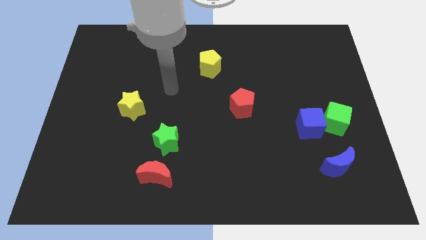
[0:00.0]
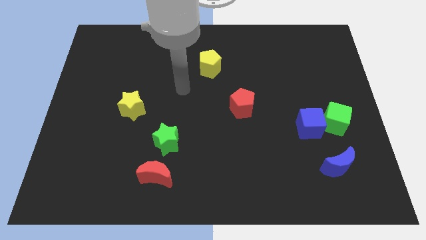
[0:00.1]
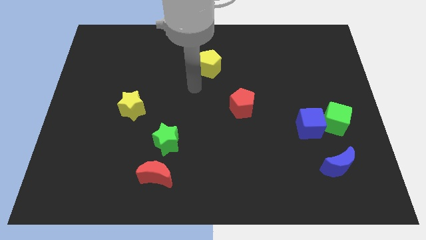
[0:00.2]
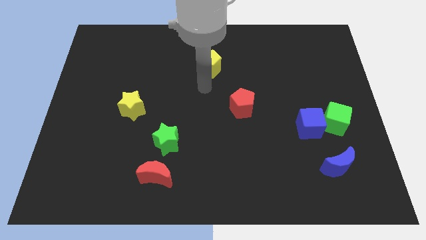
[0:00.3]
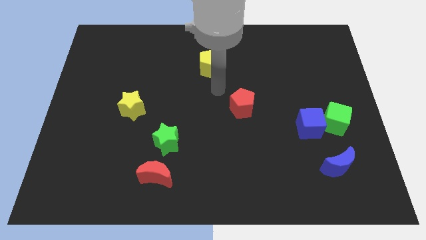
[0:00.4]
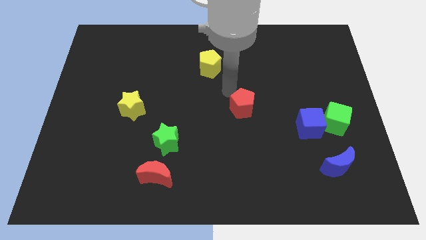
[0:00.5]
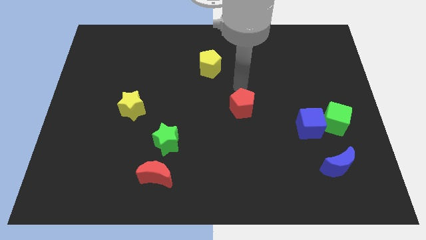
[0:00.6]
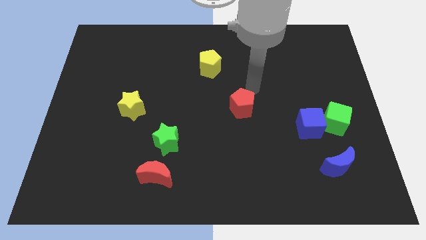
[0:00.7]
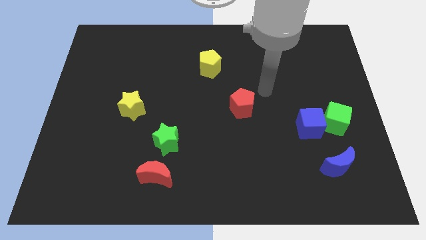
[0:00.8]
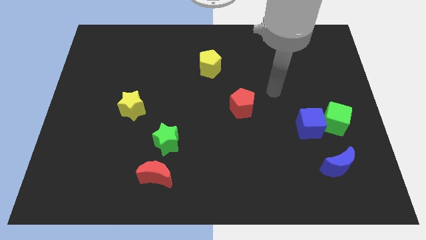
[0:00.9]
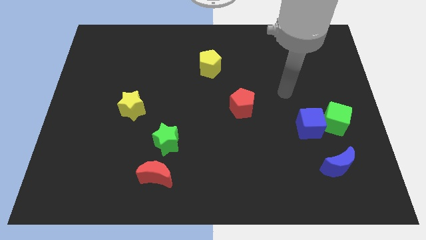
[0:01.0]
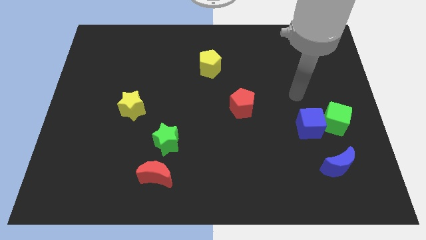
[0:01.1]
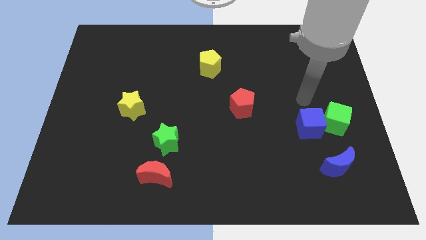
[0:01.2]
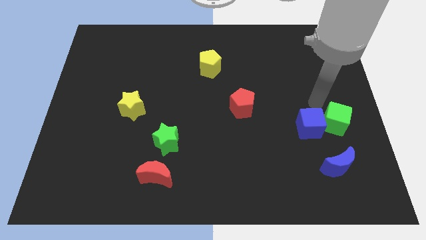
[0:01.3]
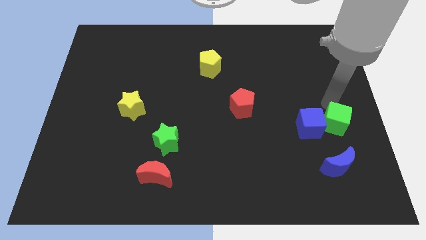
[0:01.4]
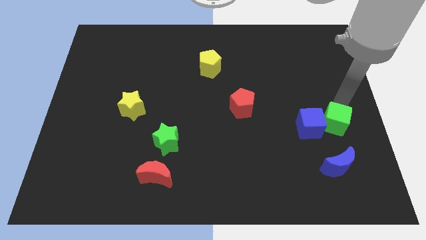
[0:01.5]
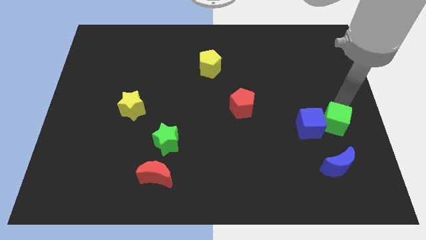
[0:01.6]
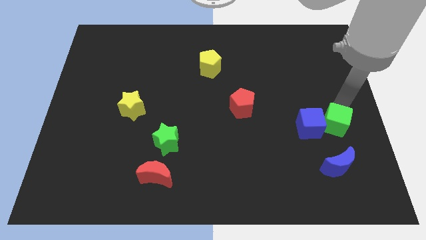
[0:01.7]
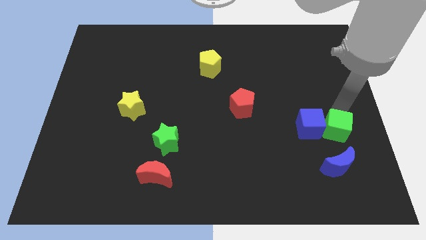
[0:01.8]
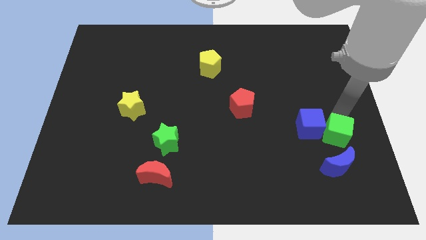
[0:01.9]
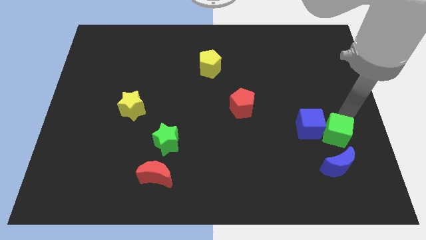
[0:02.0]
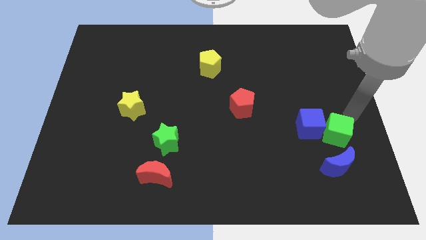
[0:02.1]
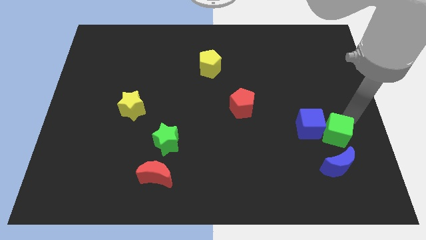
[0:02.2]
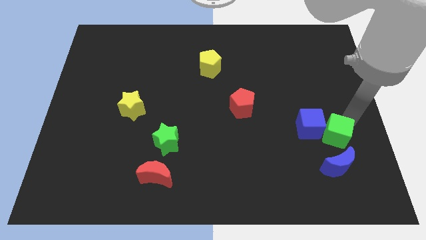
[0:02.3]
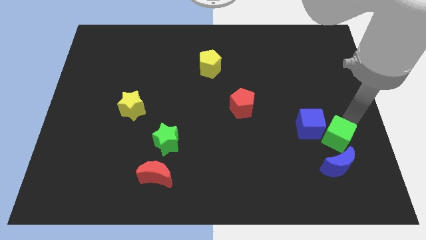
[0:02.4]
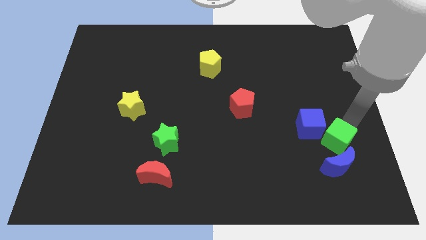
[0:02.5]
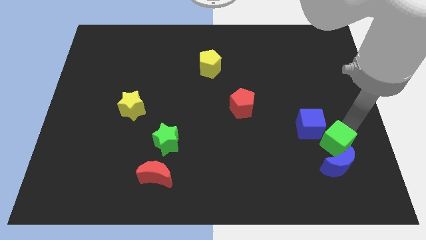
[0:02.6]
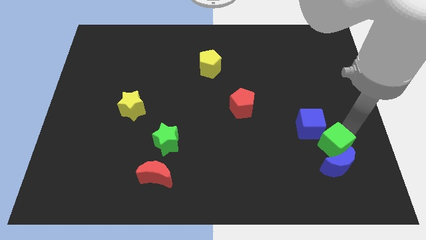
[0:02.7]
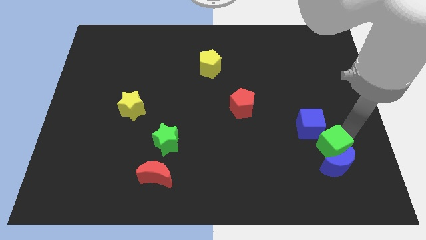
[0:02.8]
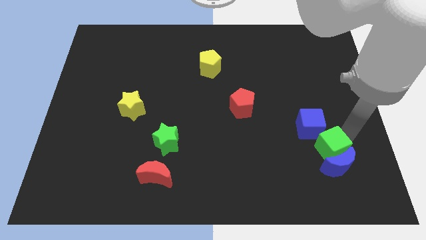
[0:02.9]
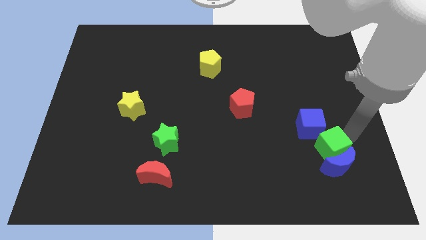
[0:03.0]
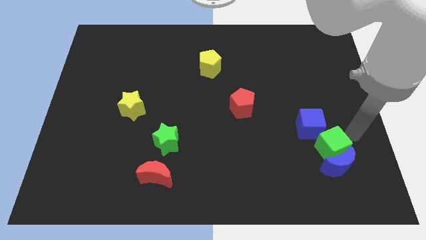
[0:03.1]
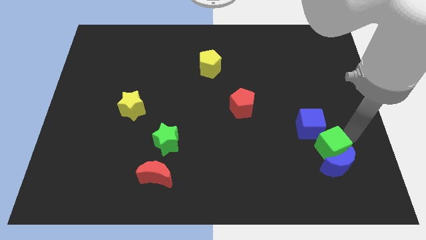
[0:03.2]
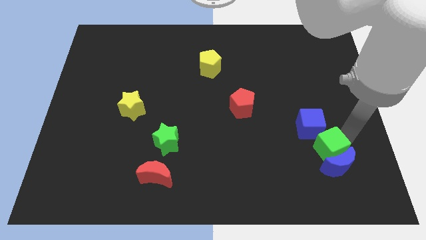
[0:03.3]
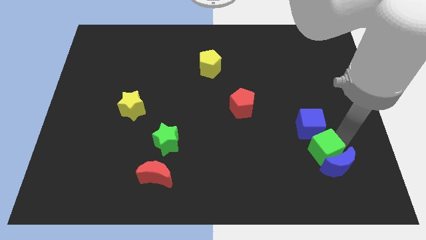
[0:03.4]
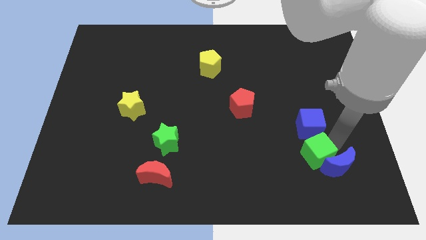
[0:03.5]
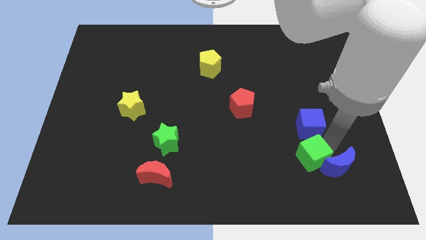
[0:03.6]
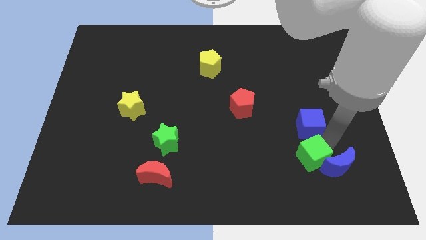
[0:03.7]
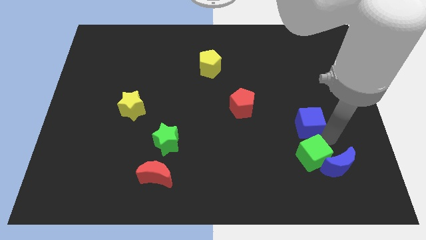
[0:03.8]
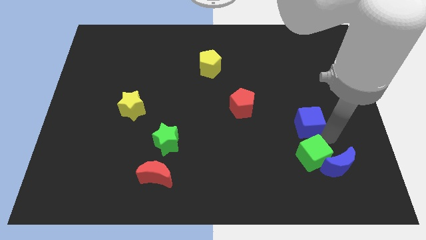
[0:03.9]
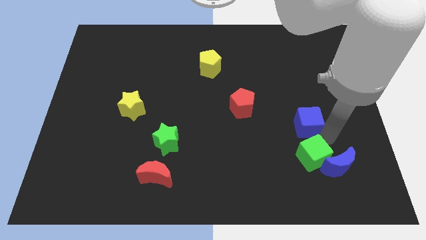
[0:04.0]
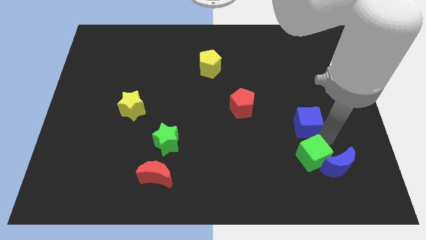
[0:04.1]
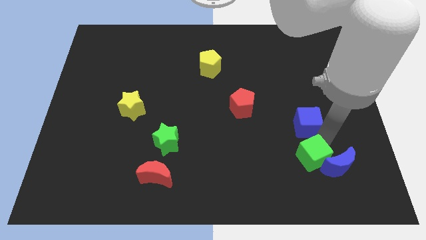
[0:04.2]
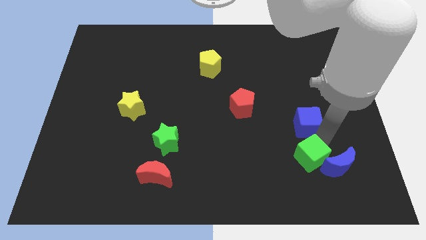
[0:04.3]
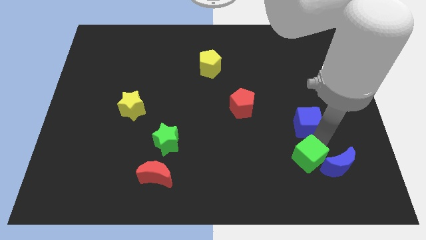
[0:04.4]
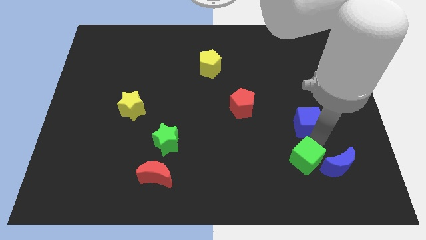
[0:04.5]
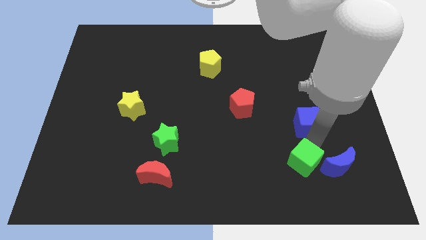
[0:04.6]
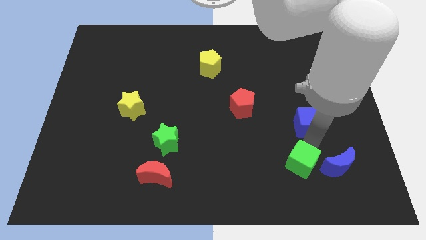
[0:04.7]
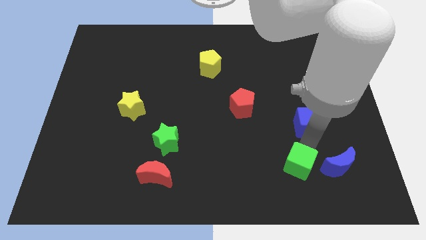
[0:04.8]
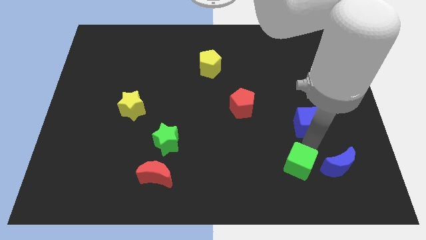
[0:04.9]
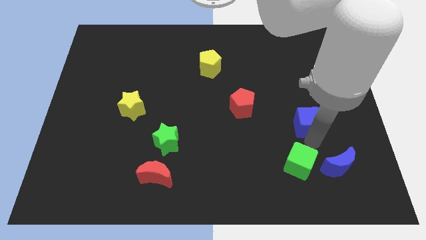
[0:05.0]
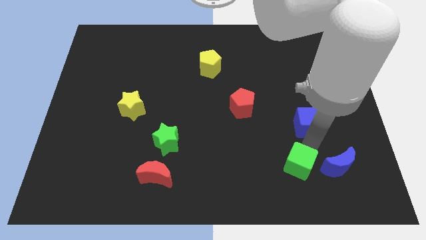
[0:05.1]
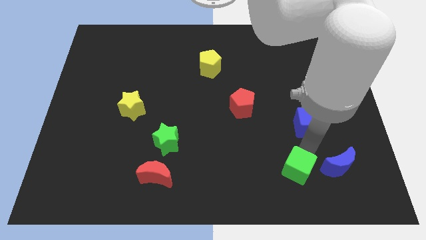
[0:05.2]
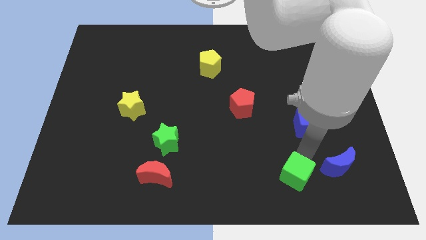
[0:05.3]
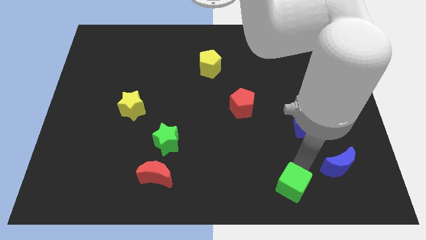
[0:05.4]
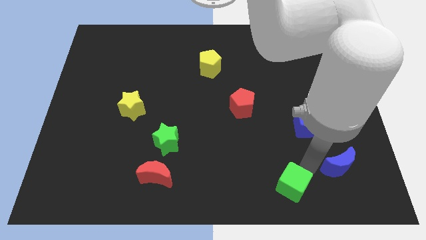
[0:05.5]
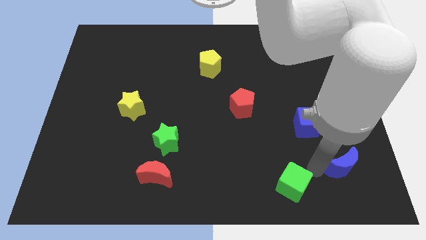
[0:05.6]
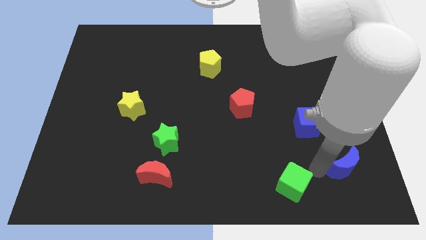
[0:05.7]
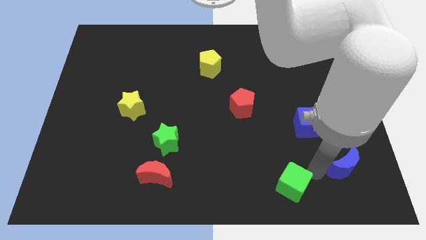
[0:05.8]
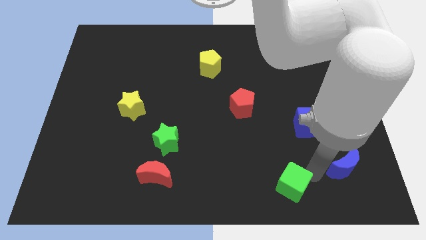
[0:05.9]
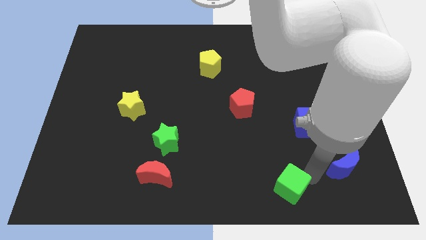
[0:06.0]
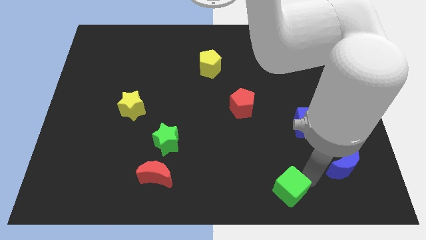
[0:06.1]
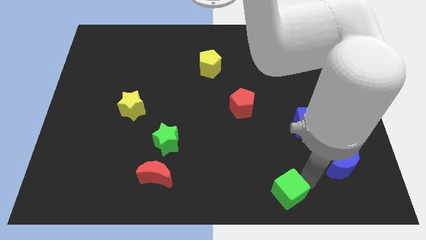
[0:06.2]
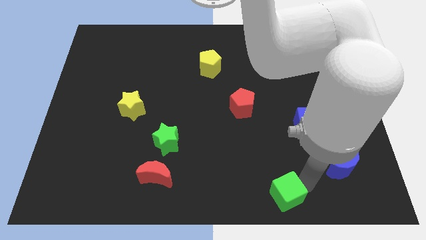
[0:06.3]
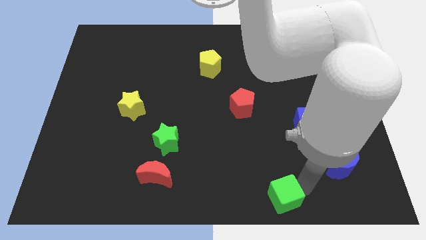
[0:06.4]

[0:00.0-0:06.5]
move the green cube to the bottom

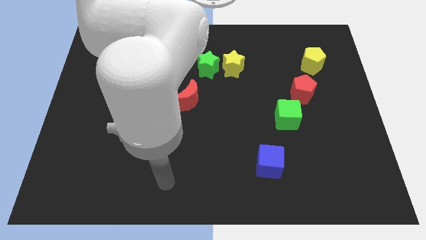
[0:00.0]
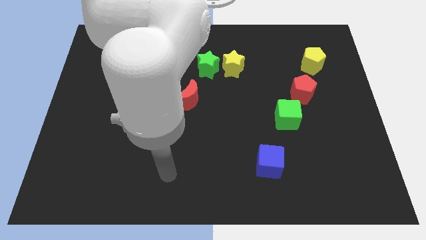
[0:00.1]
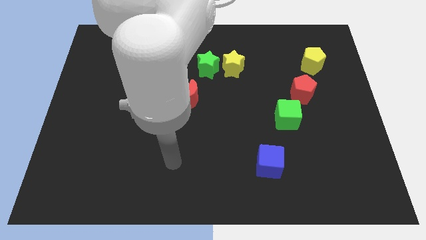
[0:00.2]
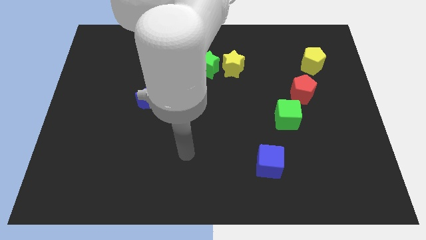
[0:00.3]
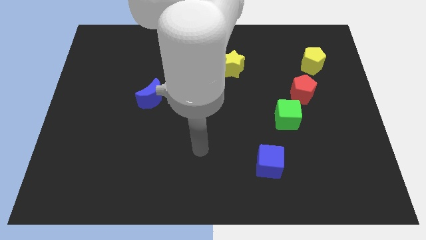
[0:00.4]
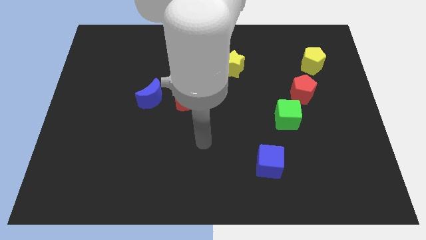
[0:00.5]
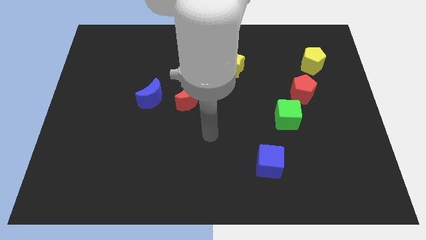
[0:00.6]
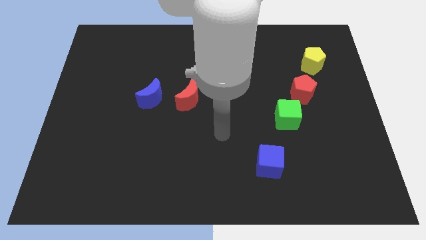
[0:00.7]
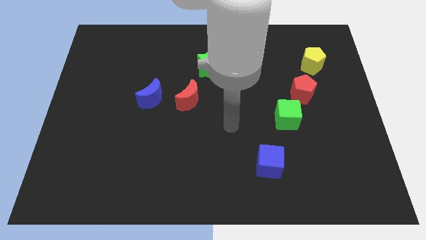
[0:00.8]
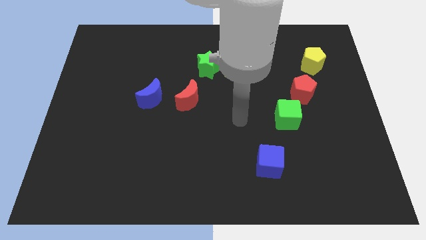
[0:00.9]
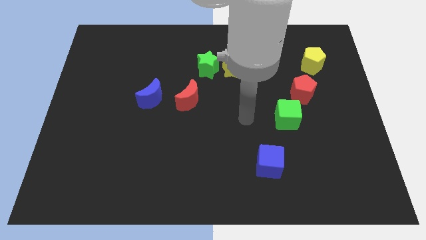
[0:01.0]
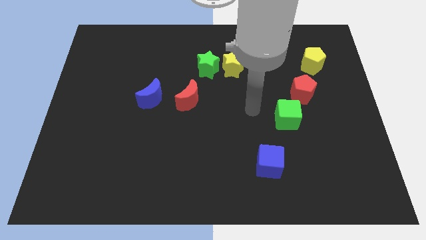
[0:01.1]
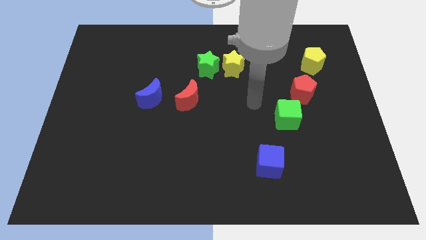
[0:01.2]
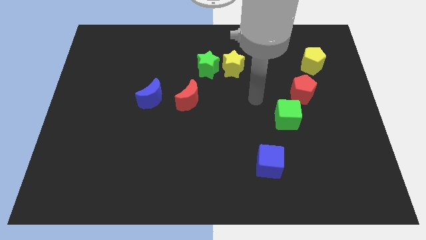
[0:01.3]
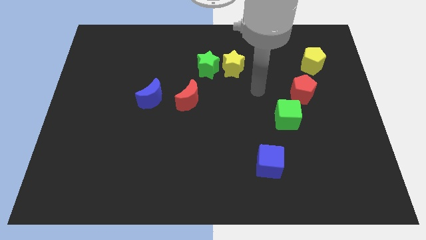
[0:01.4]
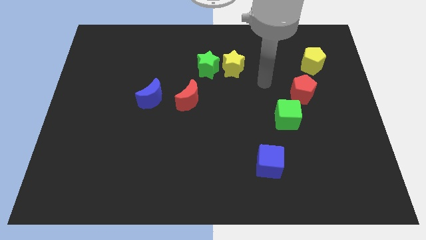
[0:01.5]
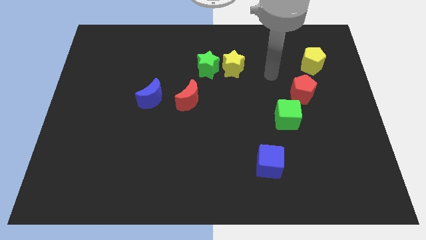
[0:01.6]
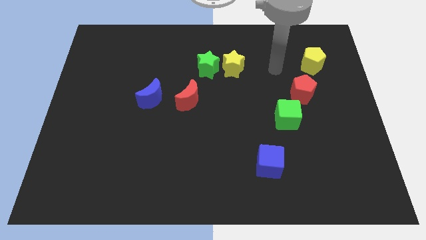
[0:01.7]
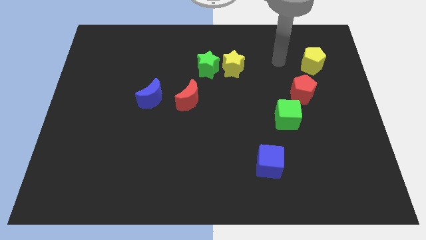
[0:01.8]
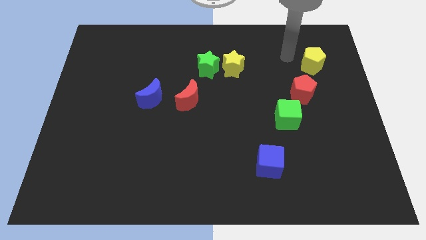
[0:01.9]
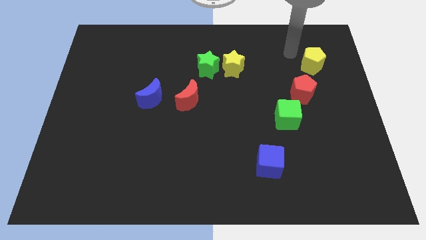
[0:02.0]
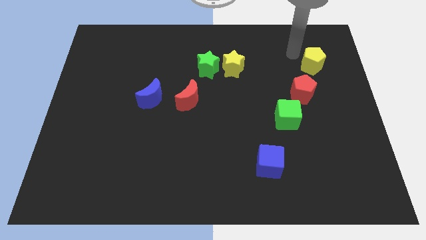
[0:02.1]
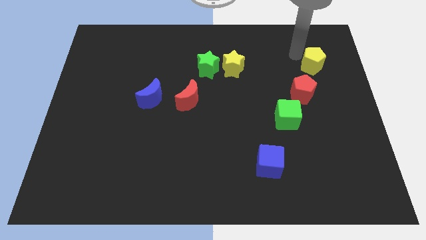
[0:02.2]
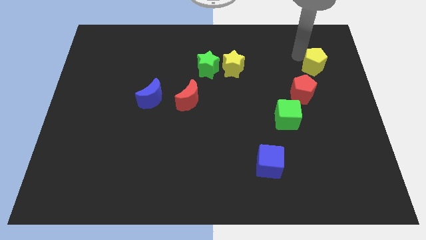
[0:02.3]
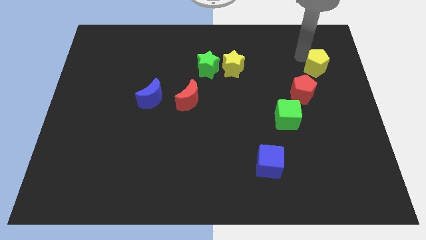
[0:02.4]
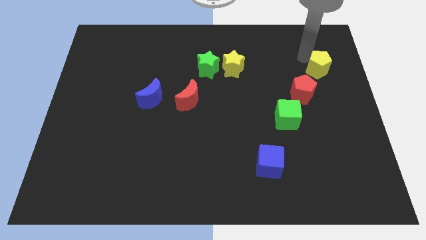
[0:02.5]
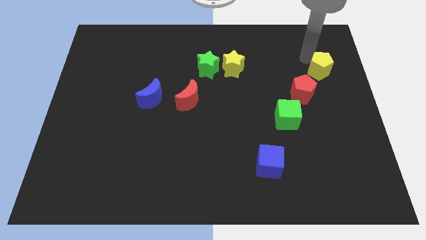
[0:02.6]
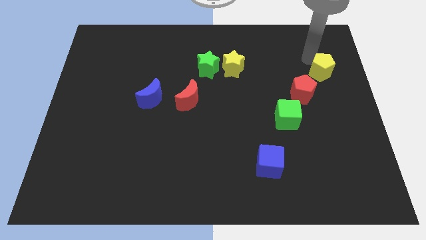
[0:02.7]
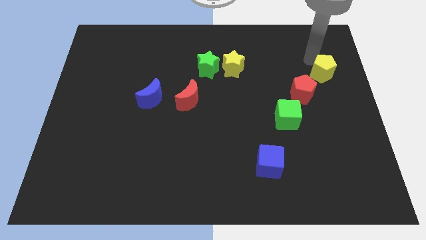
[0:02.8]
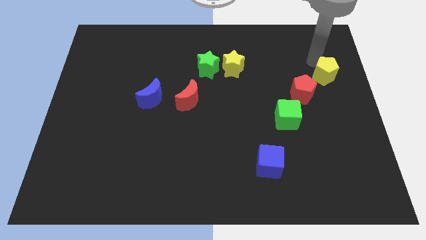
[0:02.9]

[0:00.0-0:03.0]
move the yellow pentagon to the right side
